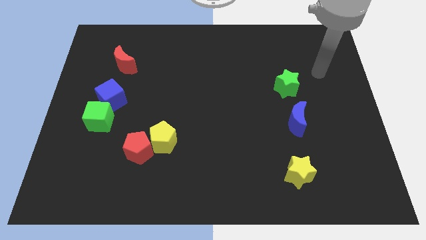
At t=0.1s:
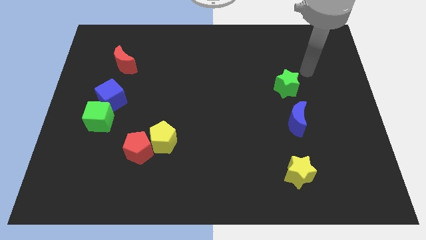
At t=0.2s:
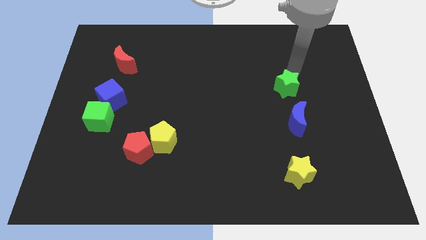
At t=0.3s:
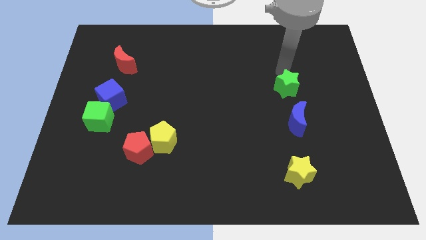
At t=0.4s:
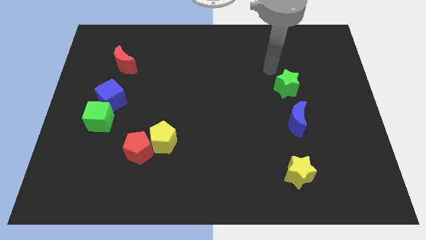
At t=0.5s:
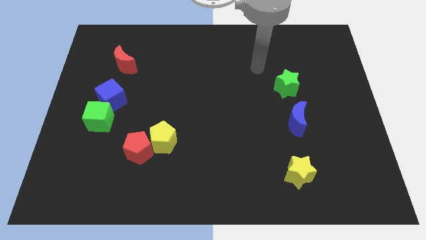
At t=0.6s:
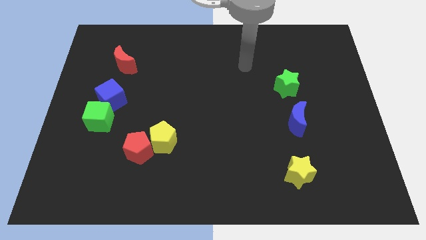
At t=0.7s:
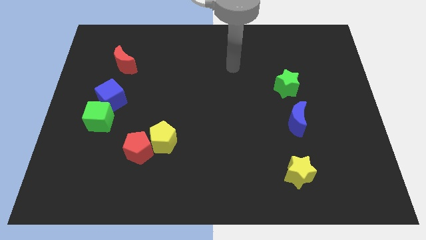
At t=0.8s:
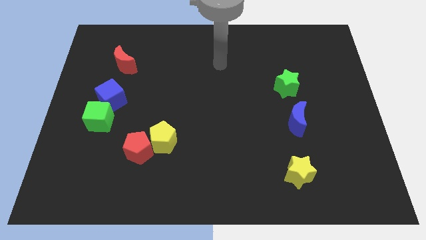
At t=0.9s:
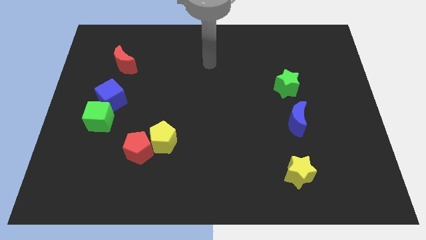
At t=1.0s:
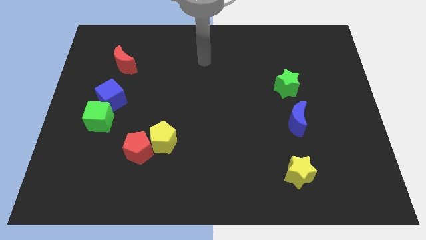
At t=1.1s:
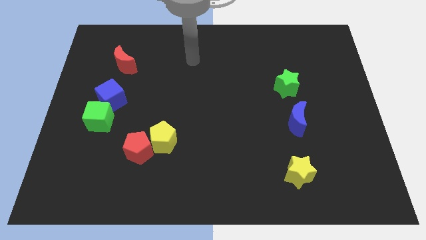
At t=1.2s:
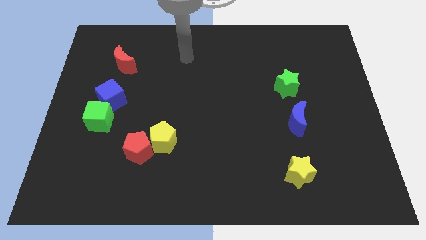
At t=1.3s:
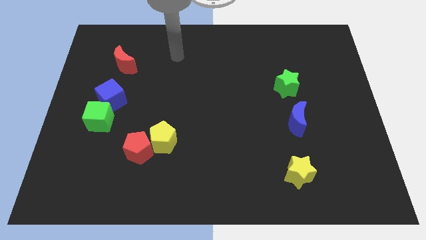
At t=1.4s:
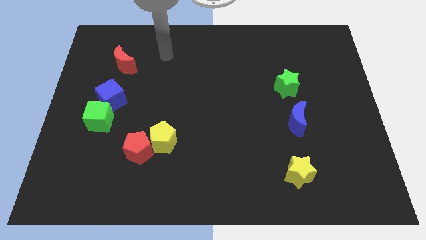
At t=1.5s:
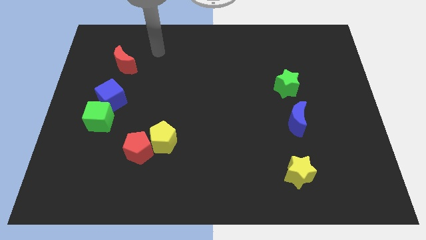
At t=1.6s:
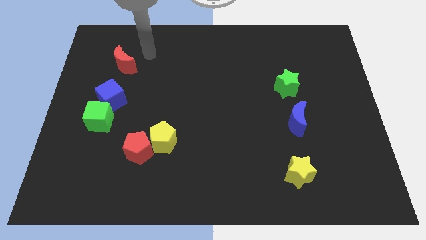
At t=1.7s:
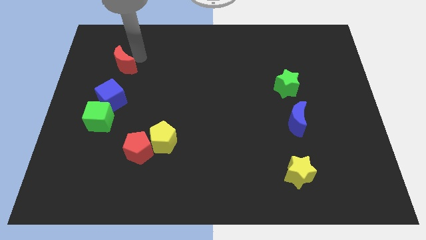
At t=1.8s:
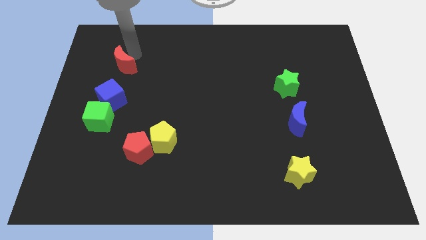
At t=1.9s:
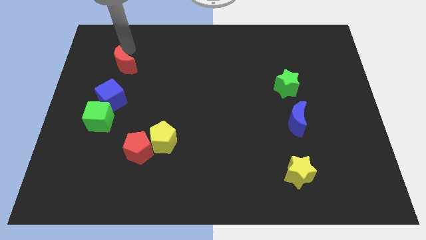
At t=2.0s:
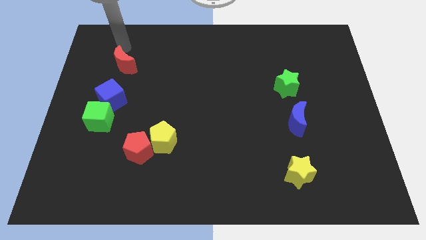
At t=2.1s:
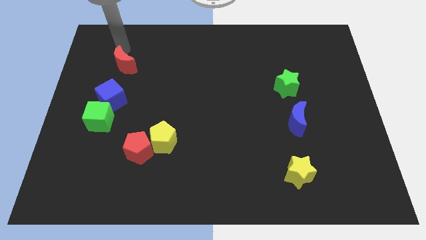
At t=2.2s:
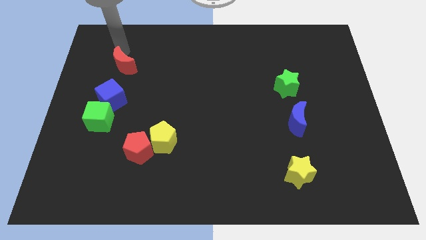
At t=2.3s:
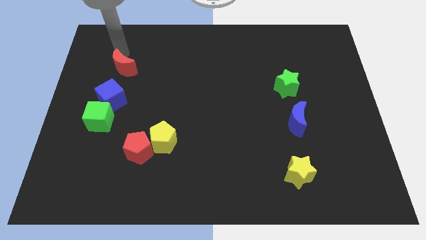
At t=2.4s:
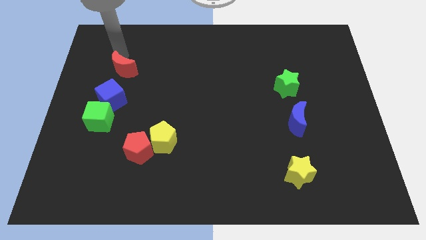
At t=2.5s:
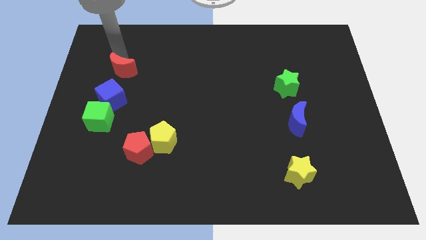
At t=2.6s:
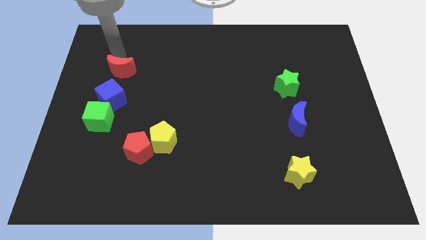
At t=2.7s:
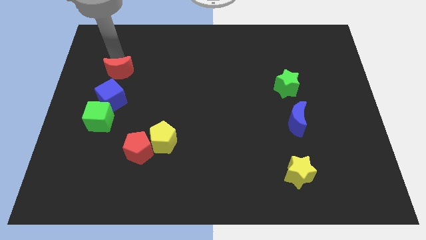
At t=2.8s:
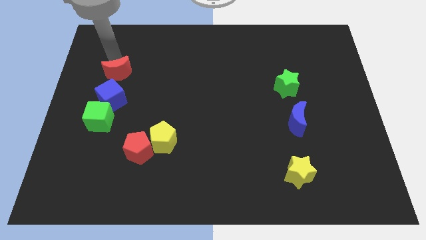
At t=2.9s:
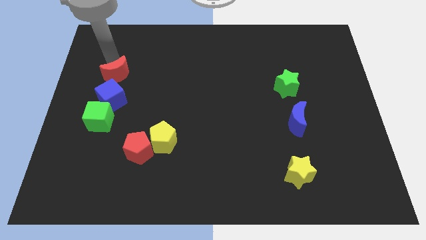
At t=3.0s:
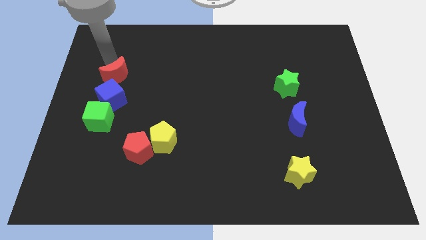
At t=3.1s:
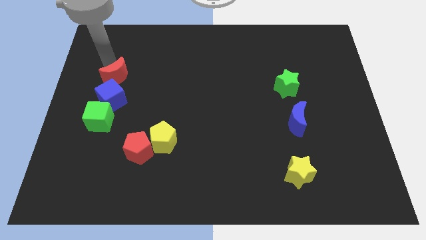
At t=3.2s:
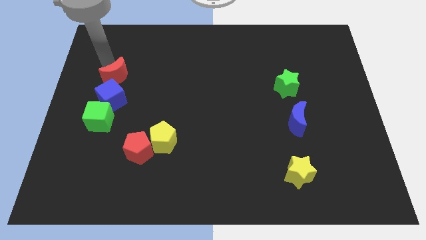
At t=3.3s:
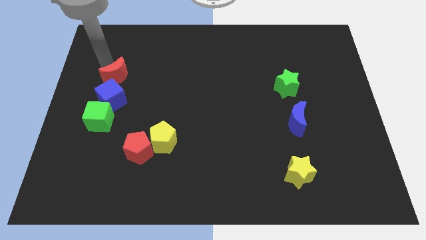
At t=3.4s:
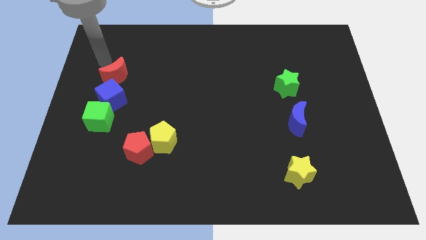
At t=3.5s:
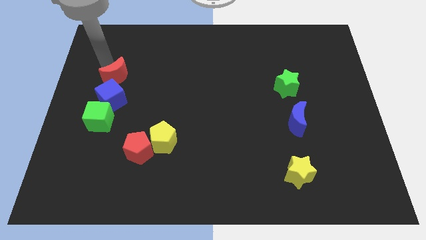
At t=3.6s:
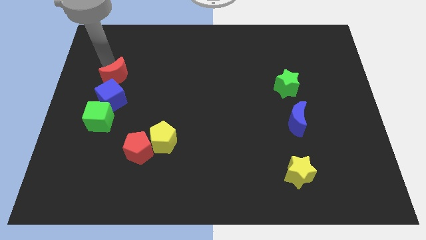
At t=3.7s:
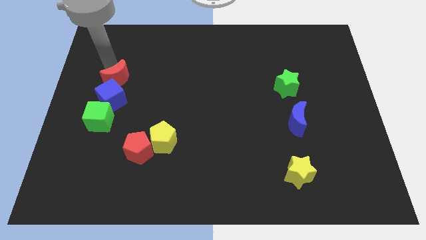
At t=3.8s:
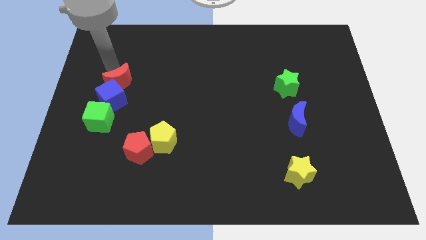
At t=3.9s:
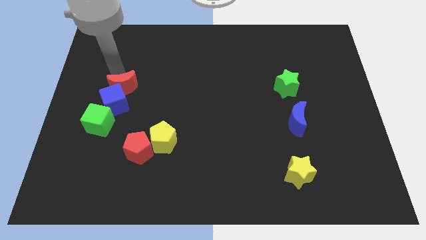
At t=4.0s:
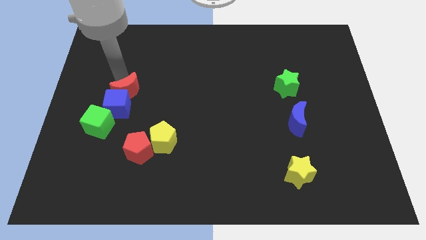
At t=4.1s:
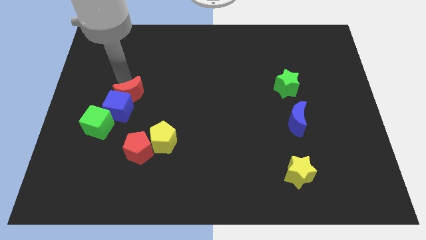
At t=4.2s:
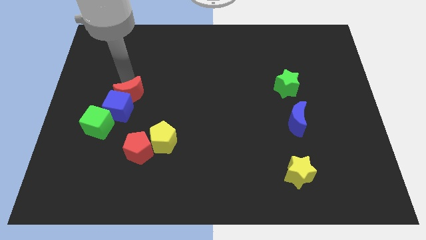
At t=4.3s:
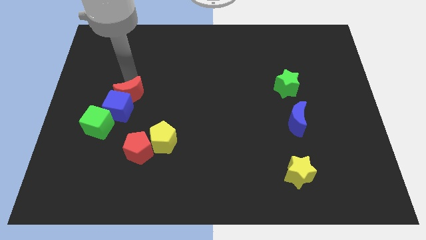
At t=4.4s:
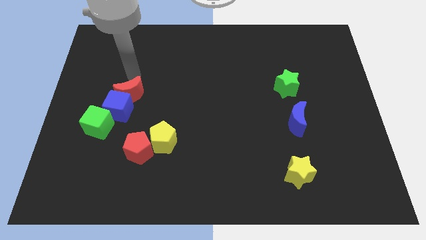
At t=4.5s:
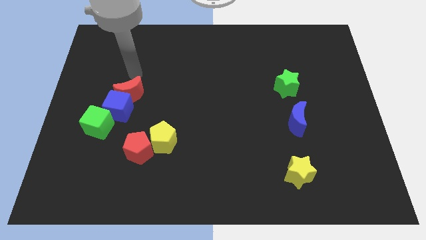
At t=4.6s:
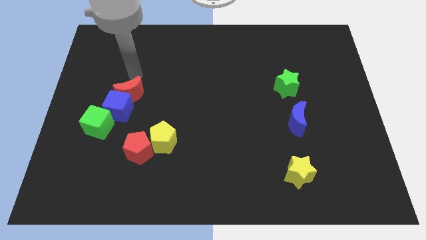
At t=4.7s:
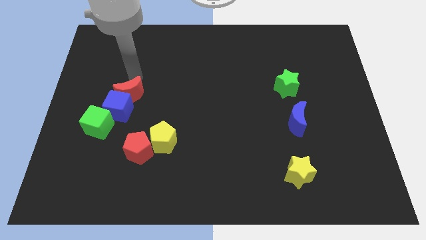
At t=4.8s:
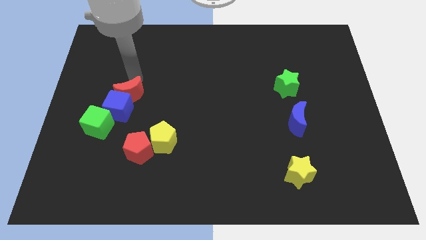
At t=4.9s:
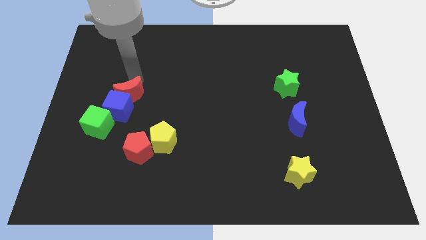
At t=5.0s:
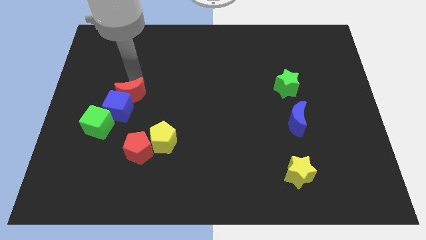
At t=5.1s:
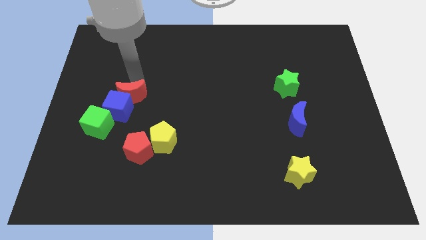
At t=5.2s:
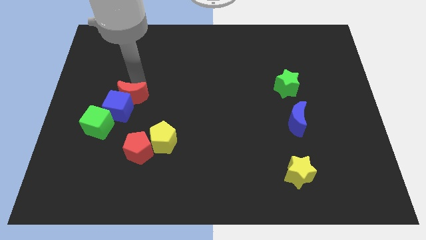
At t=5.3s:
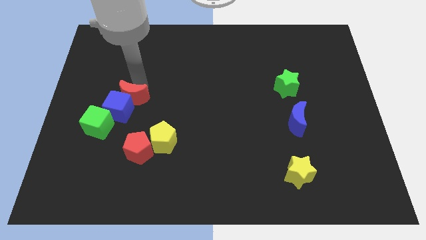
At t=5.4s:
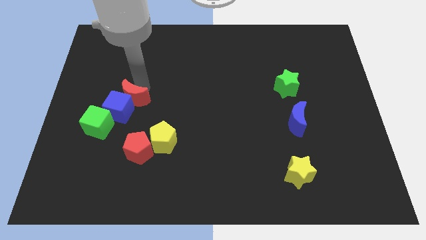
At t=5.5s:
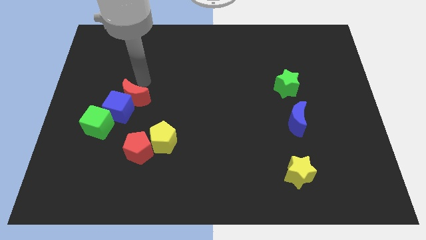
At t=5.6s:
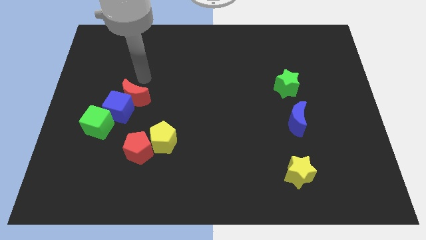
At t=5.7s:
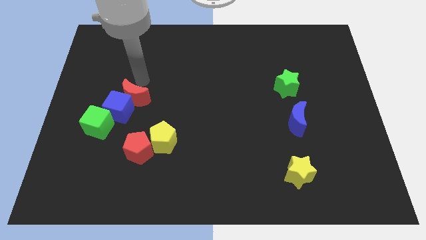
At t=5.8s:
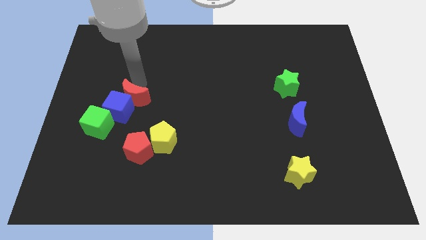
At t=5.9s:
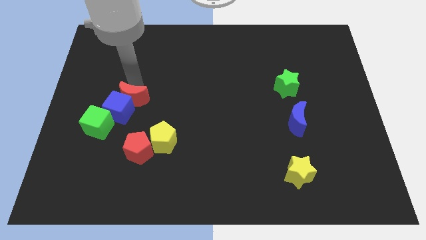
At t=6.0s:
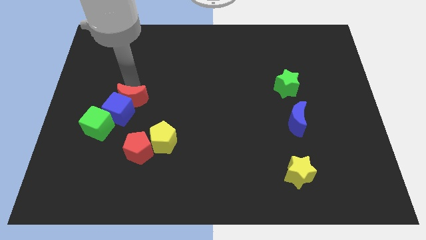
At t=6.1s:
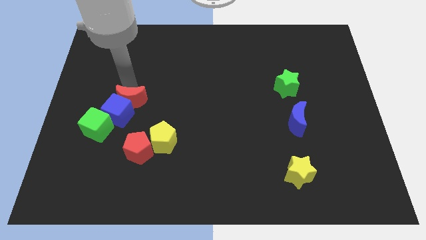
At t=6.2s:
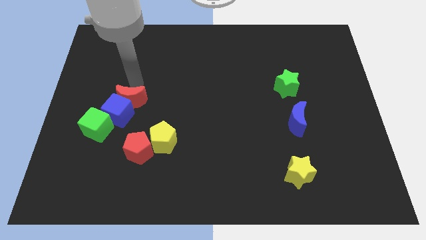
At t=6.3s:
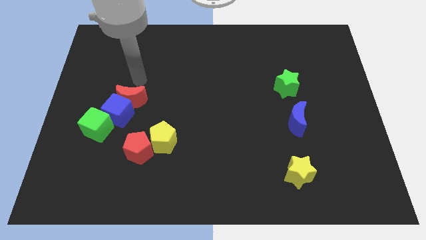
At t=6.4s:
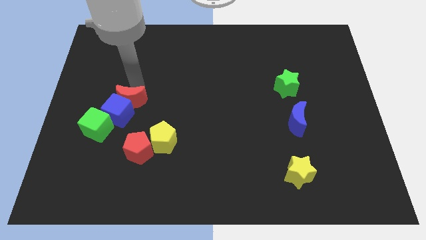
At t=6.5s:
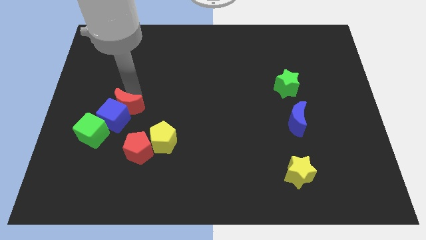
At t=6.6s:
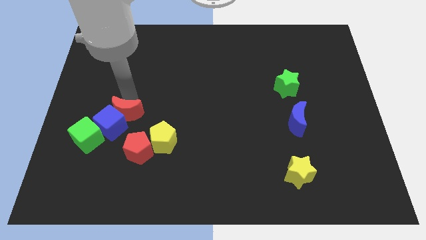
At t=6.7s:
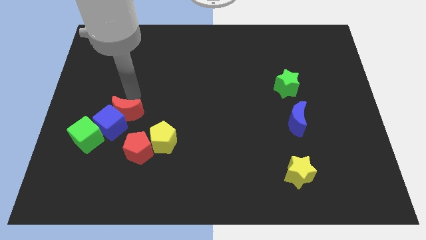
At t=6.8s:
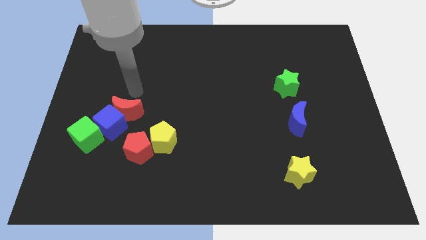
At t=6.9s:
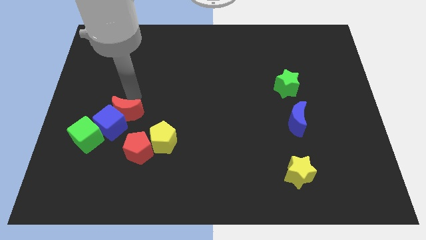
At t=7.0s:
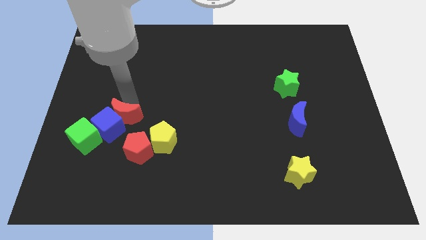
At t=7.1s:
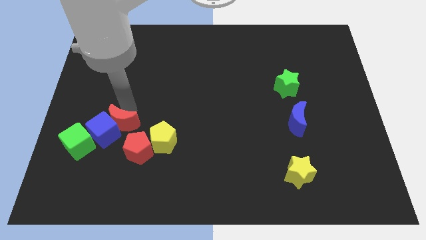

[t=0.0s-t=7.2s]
move the red moon to the left of the yellow pentagon
